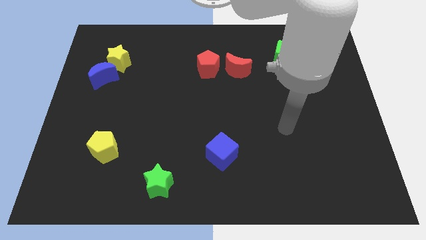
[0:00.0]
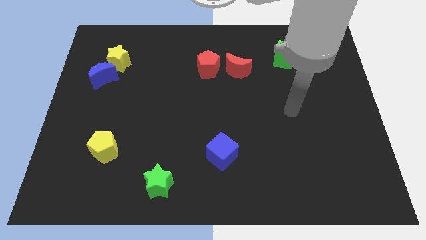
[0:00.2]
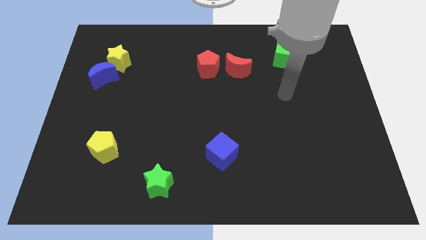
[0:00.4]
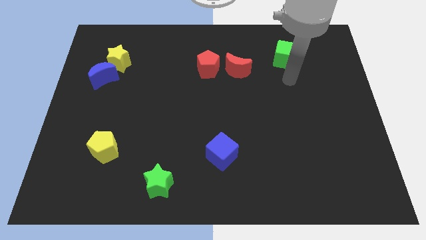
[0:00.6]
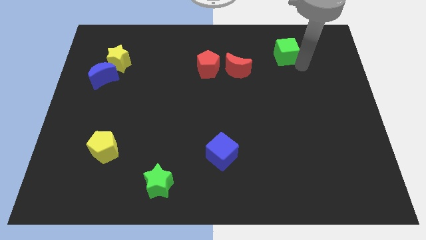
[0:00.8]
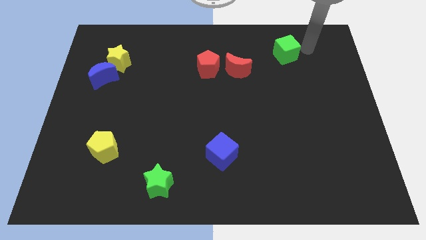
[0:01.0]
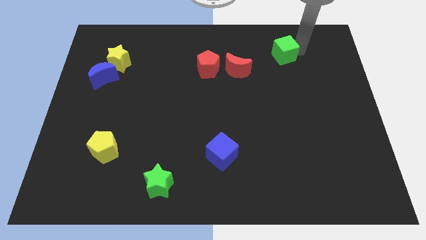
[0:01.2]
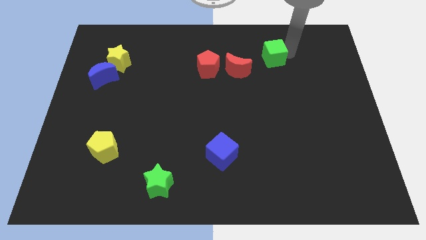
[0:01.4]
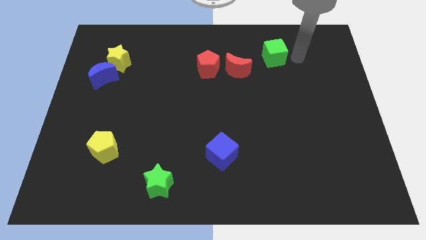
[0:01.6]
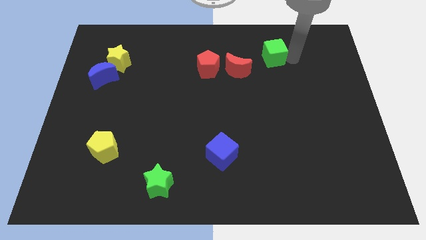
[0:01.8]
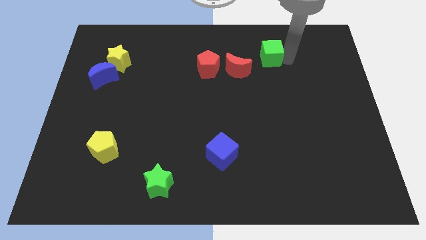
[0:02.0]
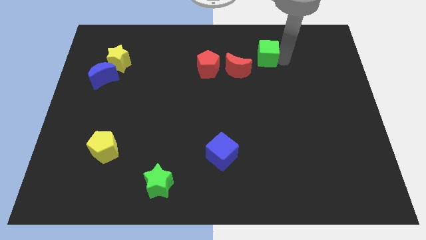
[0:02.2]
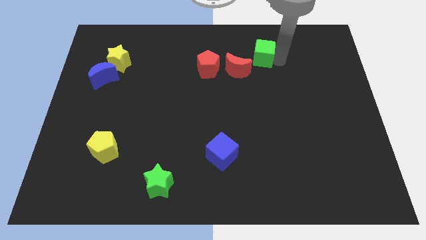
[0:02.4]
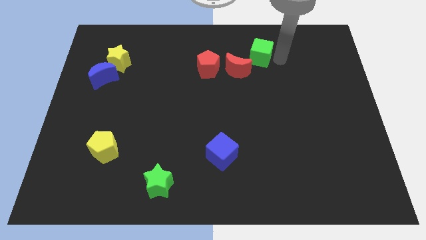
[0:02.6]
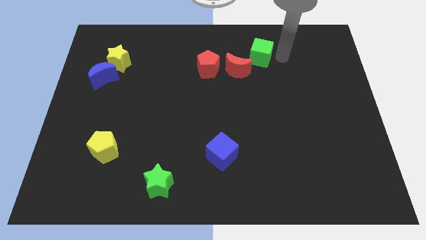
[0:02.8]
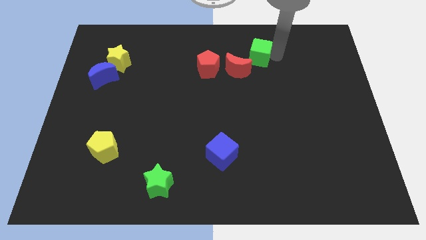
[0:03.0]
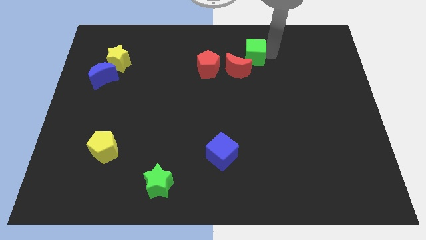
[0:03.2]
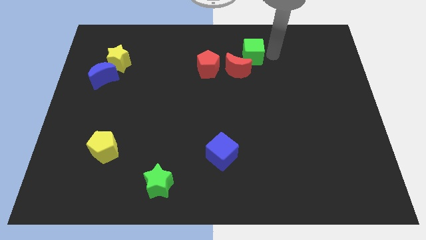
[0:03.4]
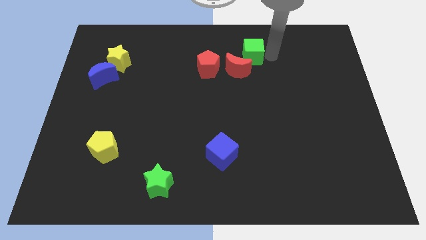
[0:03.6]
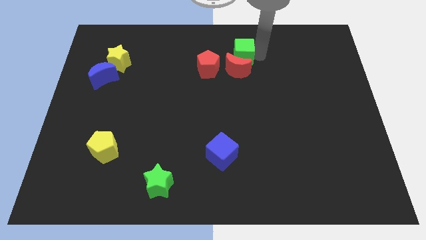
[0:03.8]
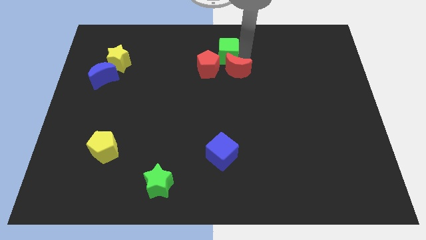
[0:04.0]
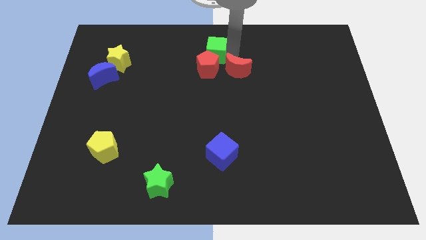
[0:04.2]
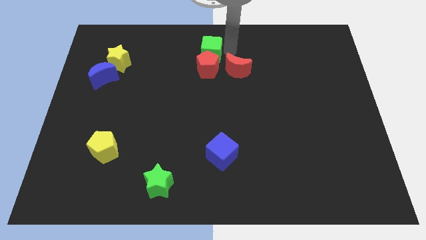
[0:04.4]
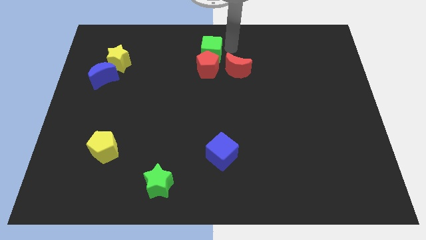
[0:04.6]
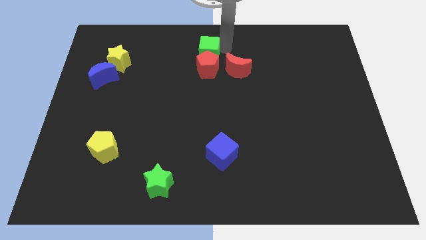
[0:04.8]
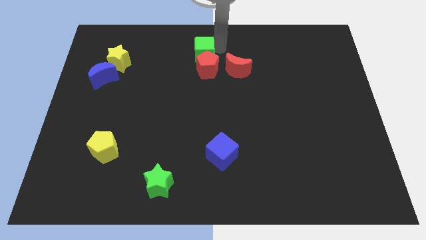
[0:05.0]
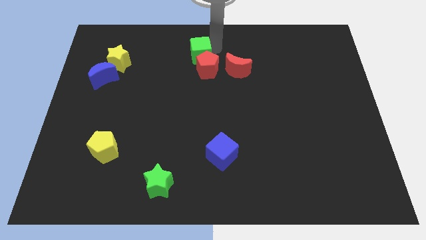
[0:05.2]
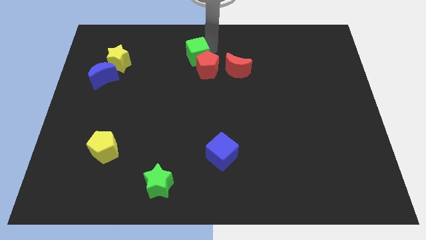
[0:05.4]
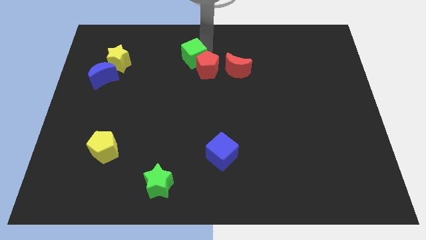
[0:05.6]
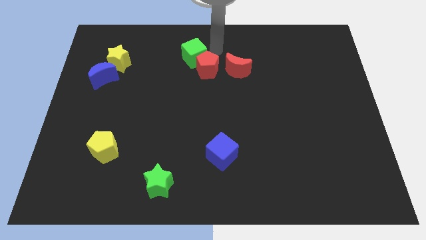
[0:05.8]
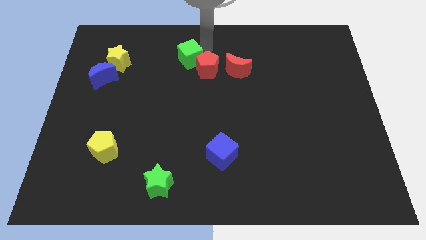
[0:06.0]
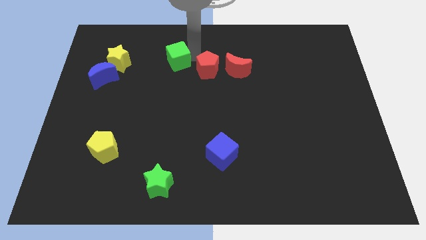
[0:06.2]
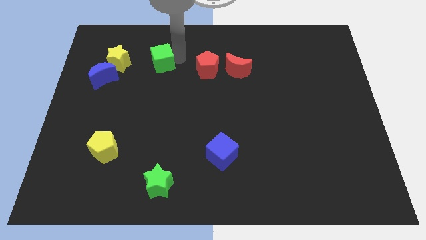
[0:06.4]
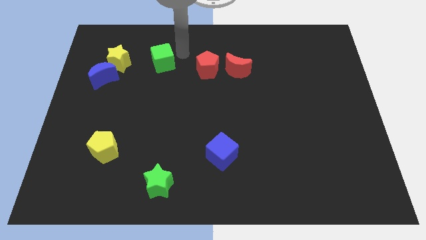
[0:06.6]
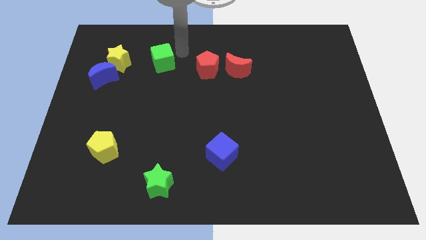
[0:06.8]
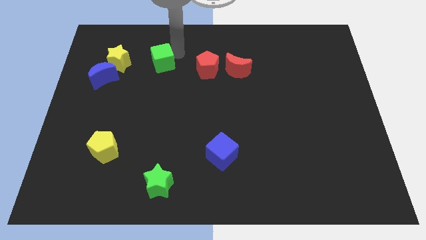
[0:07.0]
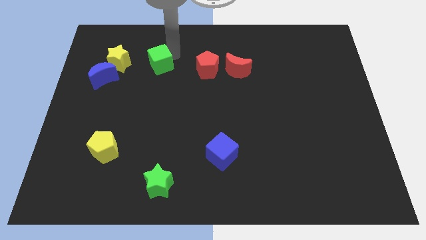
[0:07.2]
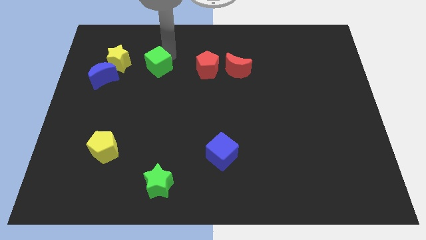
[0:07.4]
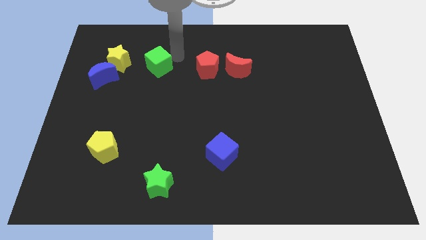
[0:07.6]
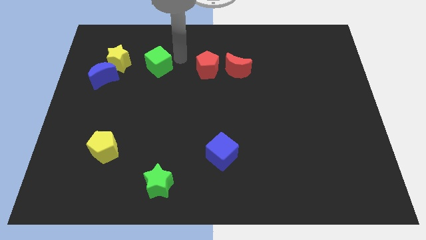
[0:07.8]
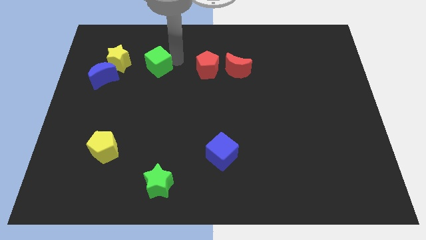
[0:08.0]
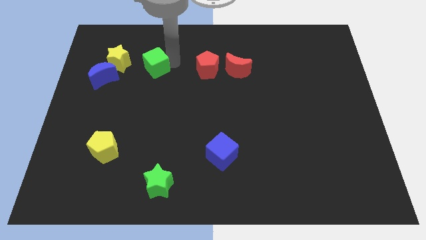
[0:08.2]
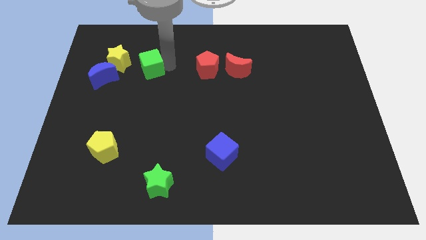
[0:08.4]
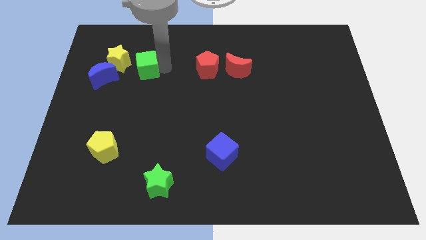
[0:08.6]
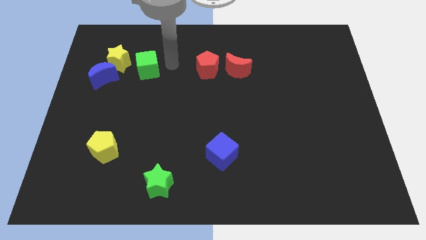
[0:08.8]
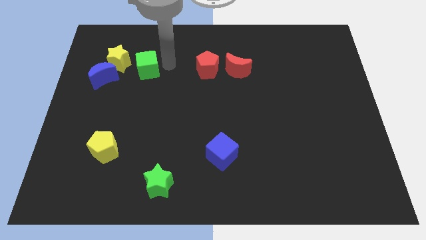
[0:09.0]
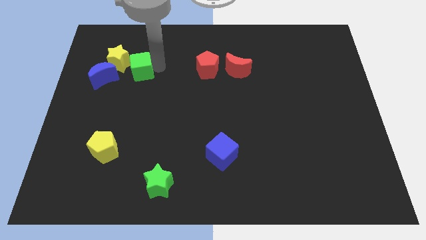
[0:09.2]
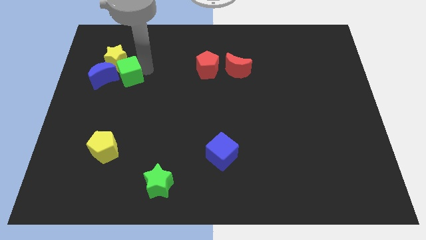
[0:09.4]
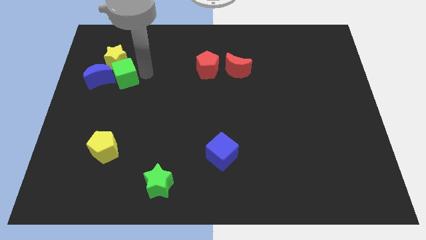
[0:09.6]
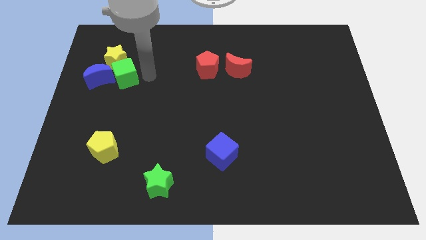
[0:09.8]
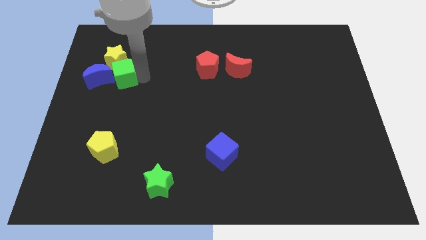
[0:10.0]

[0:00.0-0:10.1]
slide the green cube to the blue moon

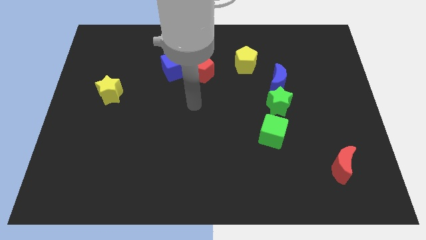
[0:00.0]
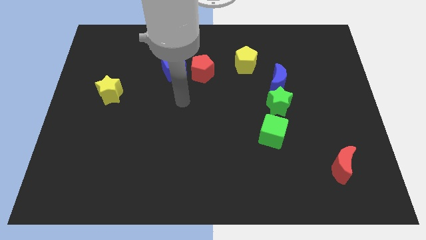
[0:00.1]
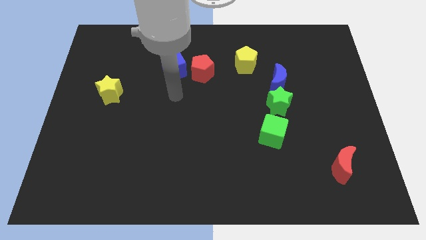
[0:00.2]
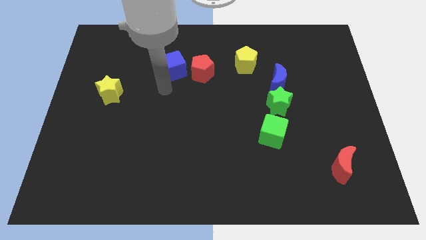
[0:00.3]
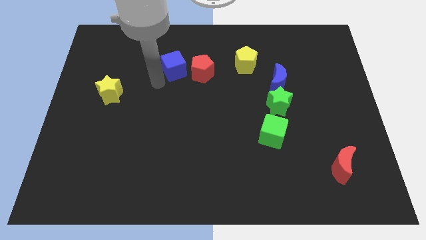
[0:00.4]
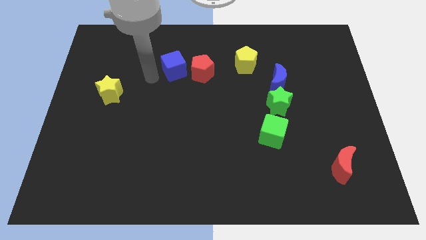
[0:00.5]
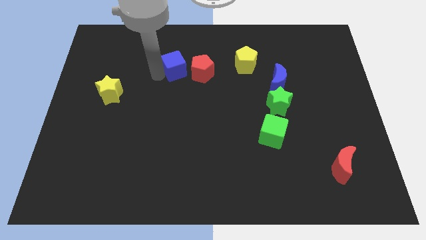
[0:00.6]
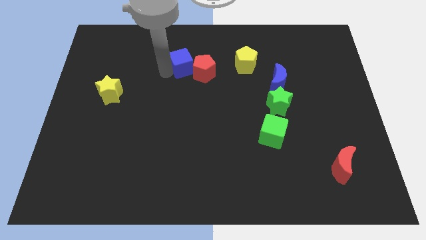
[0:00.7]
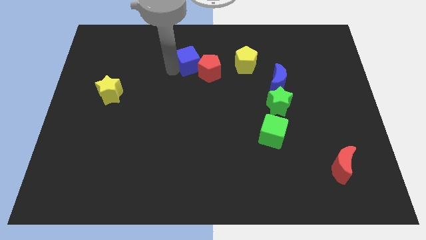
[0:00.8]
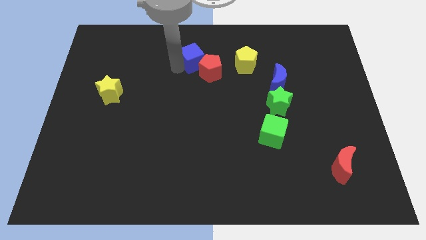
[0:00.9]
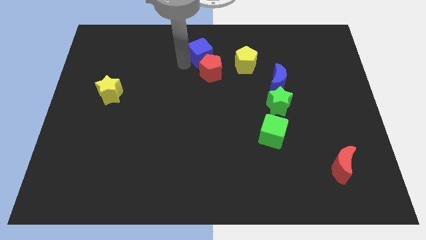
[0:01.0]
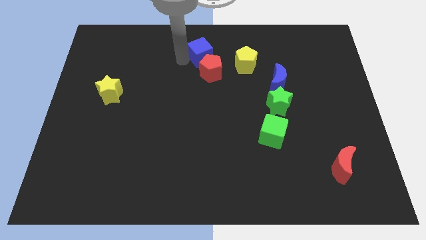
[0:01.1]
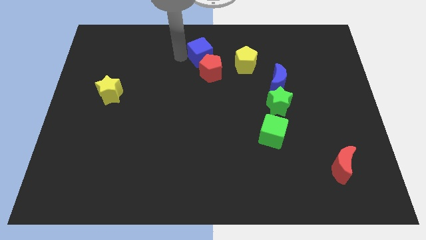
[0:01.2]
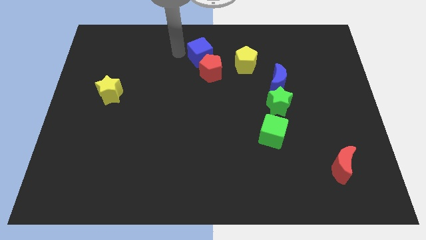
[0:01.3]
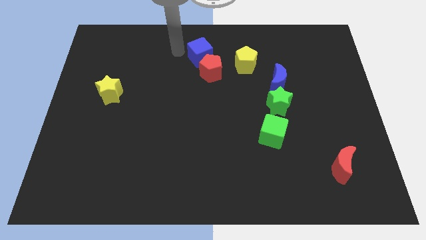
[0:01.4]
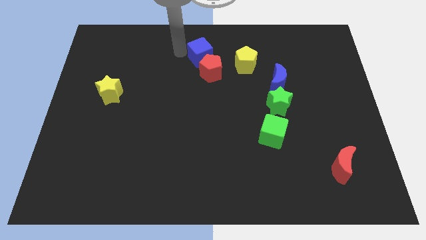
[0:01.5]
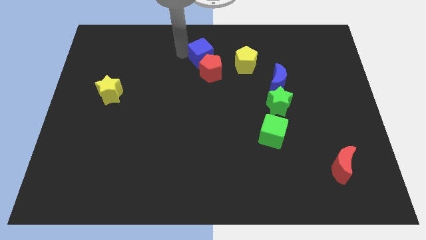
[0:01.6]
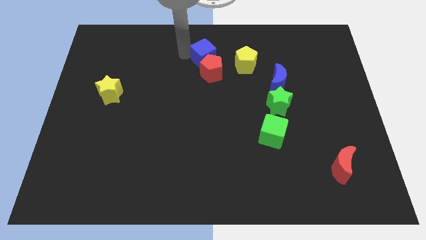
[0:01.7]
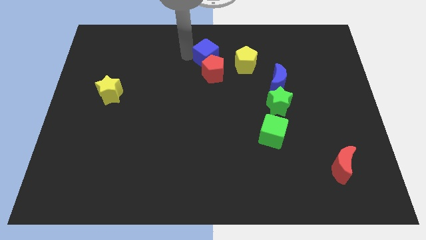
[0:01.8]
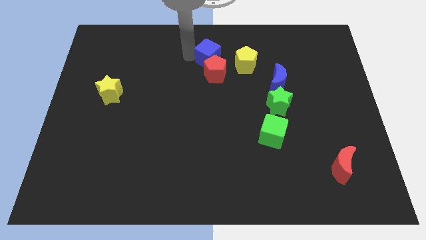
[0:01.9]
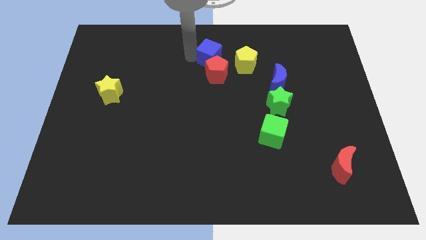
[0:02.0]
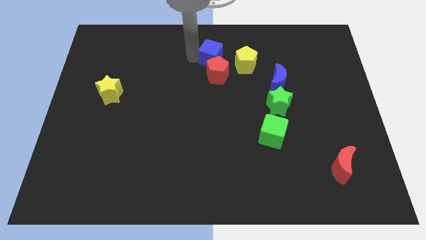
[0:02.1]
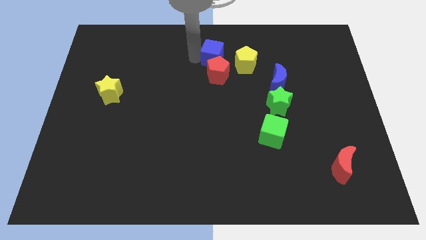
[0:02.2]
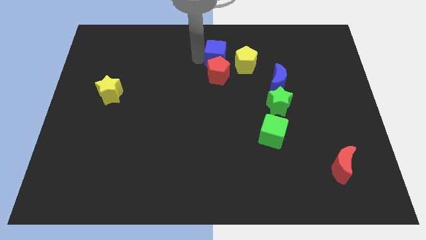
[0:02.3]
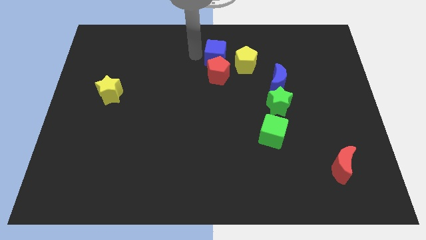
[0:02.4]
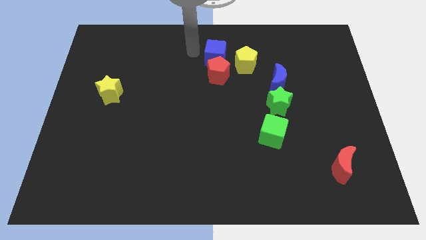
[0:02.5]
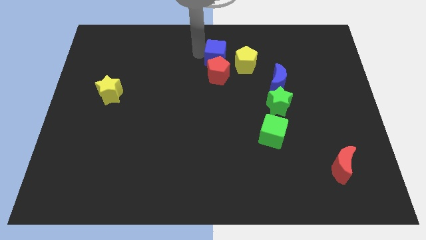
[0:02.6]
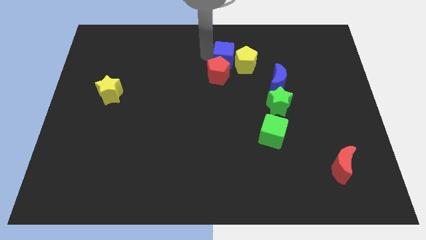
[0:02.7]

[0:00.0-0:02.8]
push the blue cube to the yellow pentagon

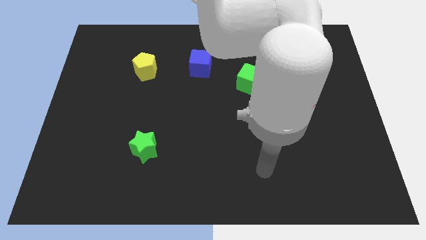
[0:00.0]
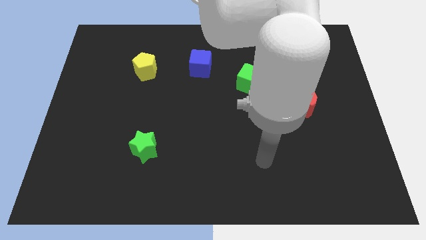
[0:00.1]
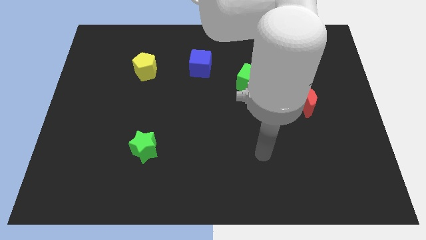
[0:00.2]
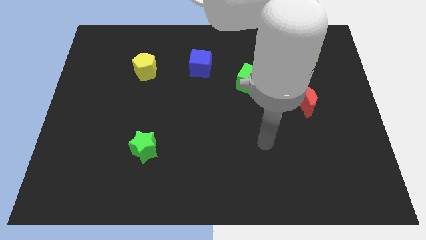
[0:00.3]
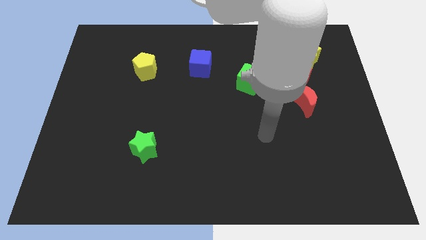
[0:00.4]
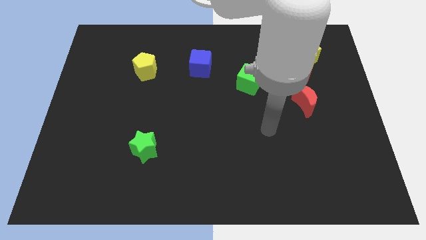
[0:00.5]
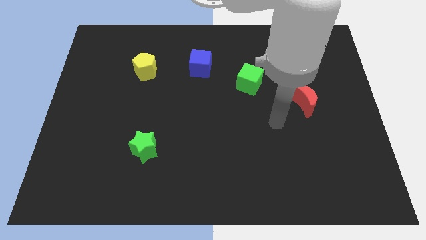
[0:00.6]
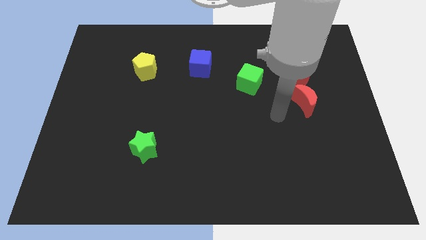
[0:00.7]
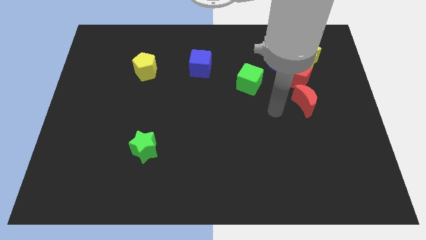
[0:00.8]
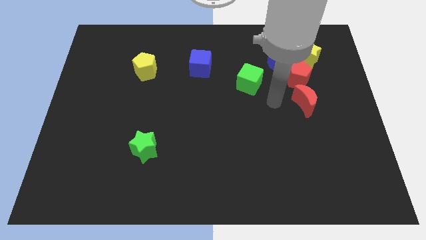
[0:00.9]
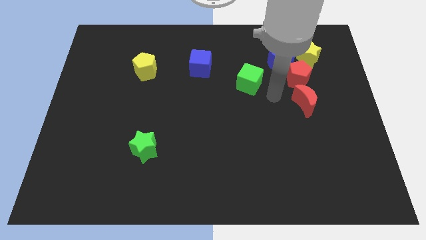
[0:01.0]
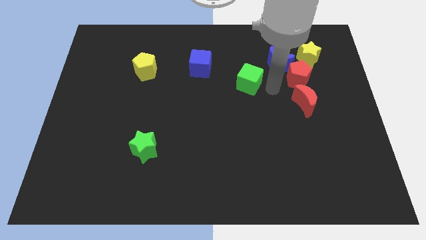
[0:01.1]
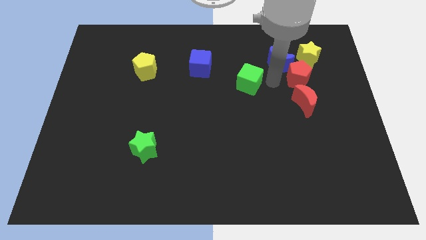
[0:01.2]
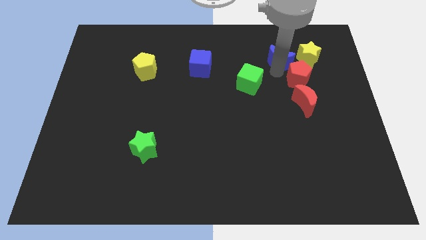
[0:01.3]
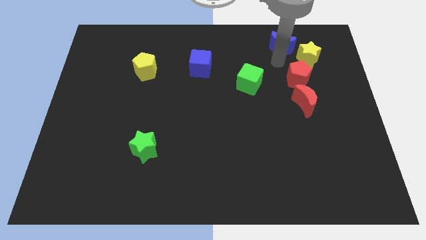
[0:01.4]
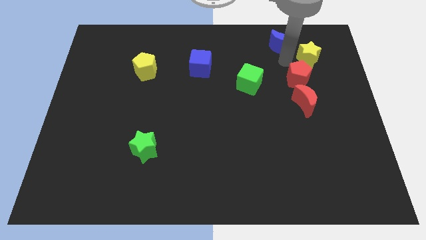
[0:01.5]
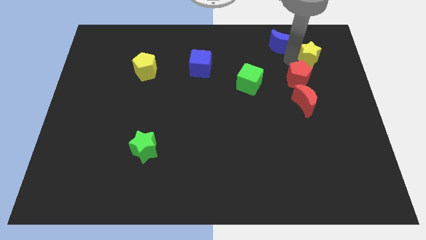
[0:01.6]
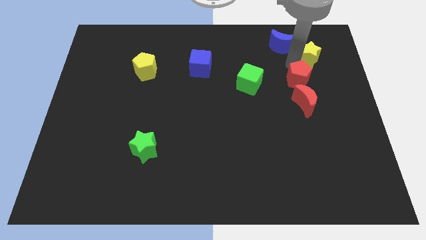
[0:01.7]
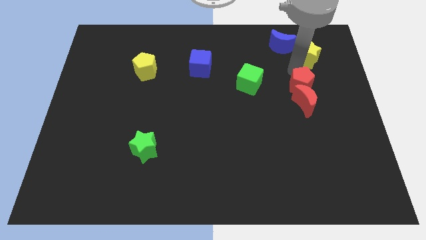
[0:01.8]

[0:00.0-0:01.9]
put the red pentagon towards the red moon
